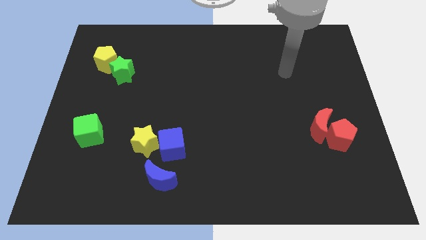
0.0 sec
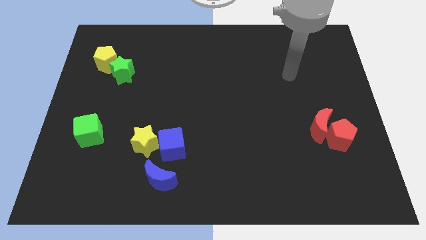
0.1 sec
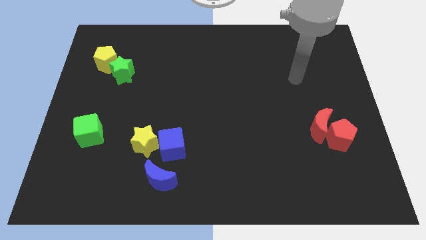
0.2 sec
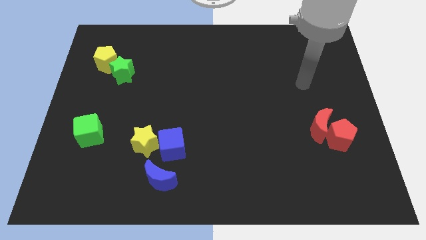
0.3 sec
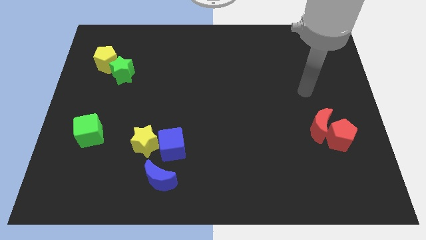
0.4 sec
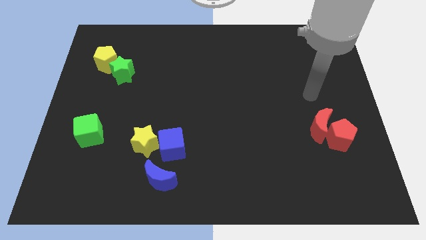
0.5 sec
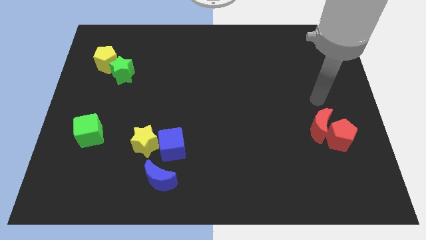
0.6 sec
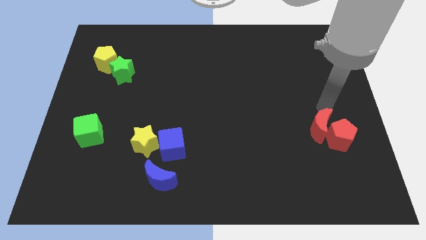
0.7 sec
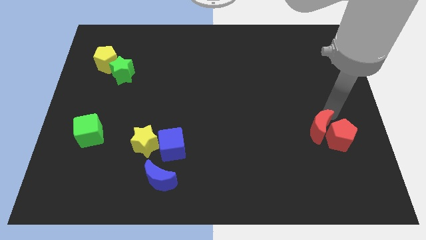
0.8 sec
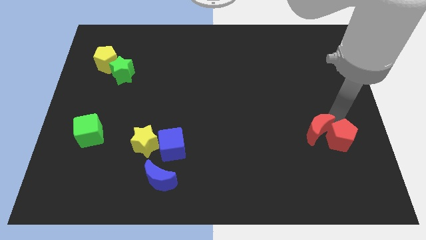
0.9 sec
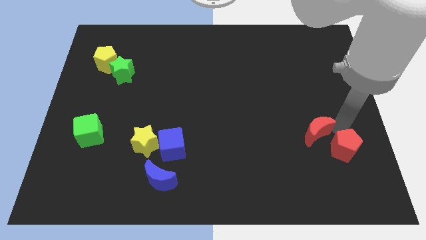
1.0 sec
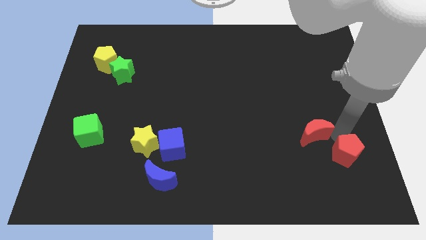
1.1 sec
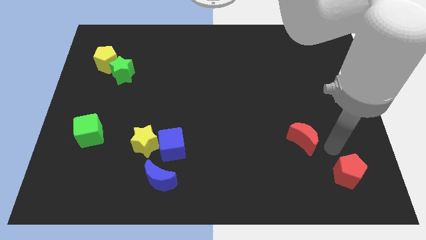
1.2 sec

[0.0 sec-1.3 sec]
move the red moon away from the red pentagon

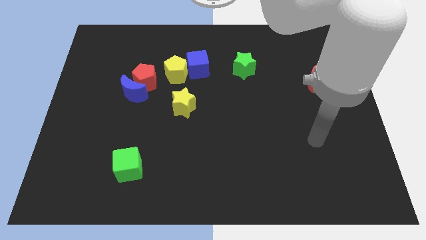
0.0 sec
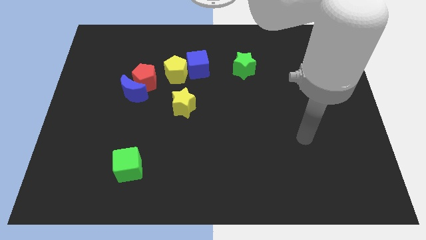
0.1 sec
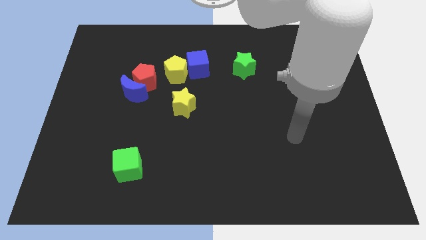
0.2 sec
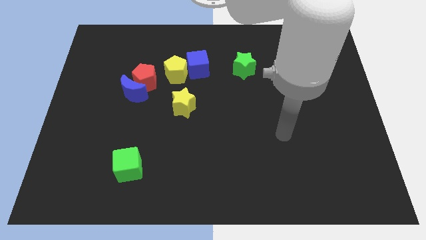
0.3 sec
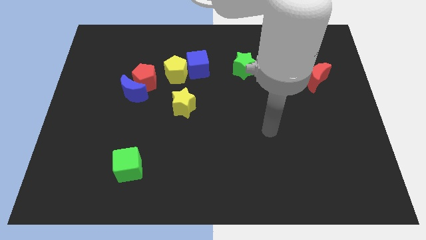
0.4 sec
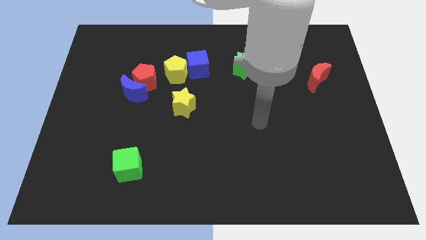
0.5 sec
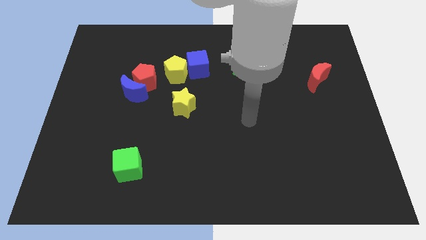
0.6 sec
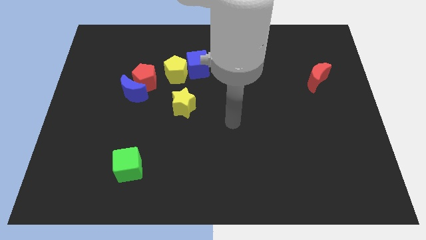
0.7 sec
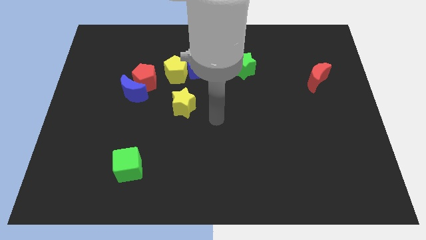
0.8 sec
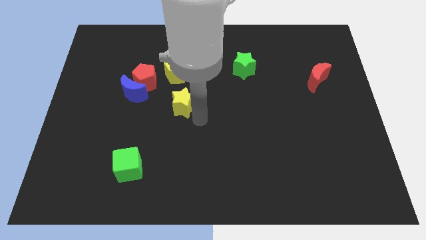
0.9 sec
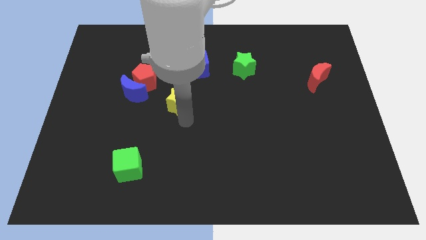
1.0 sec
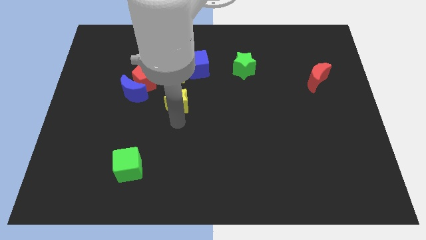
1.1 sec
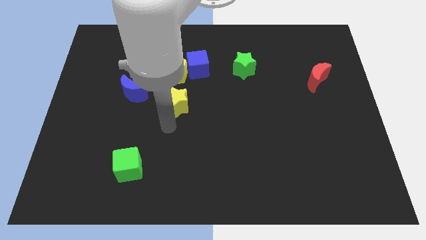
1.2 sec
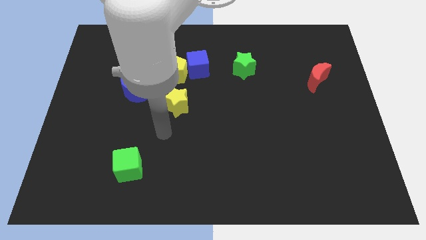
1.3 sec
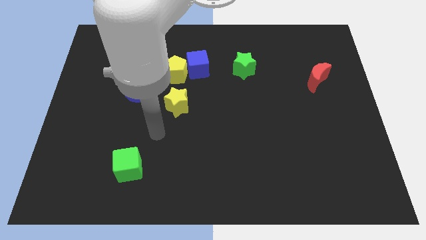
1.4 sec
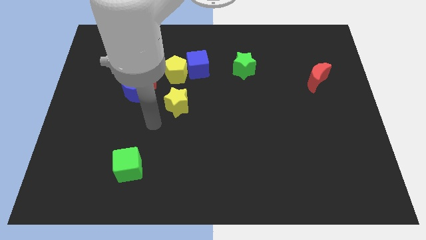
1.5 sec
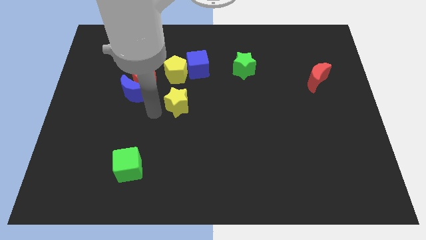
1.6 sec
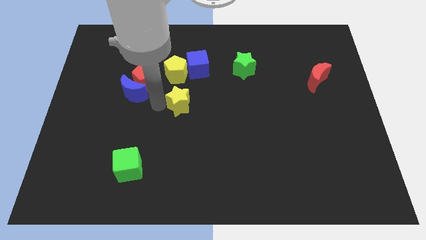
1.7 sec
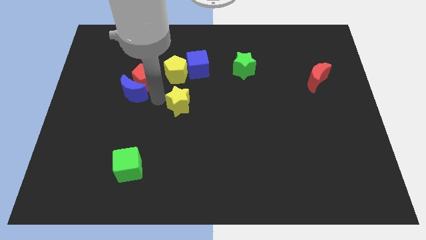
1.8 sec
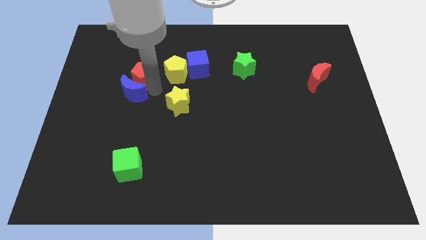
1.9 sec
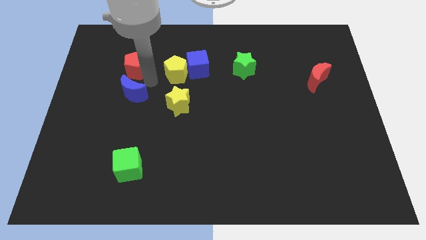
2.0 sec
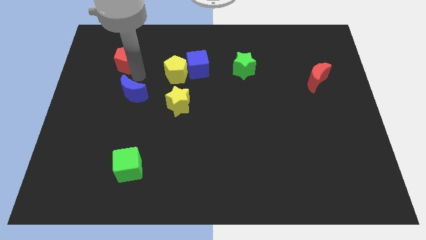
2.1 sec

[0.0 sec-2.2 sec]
pull the blue moon apart from the red pentagon

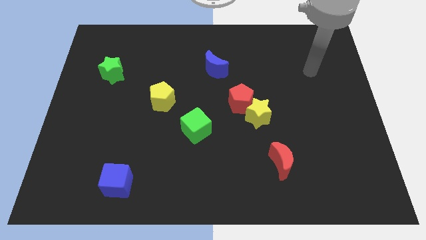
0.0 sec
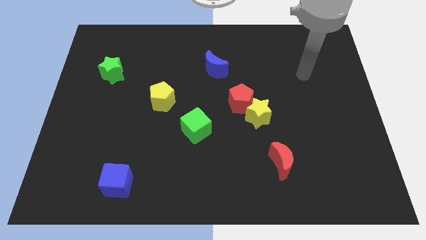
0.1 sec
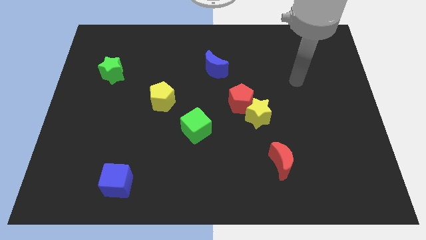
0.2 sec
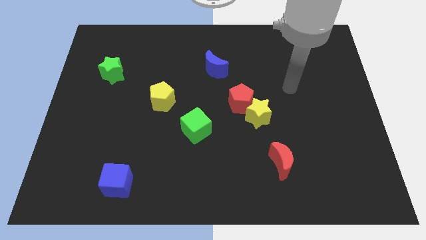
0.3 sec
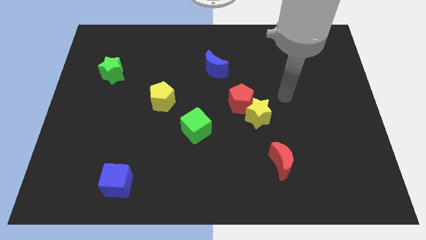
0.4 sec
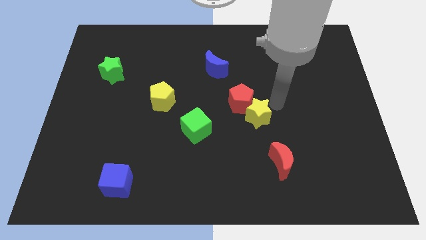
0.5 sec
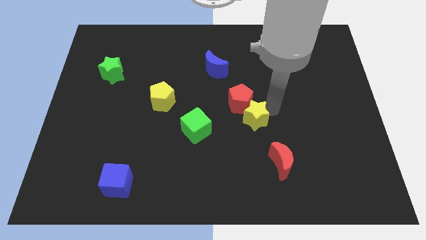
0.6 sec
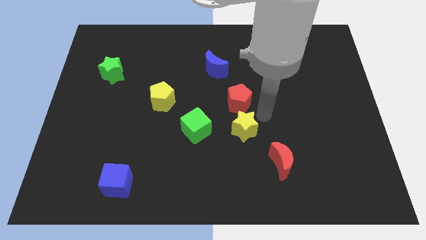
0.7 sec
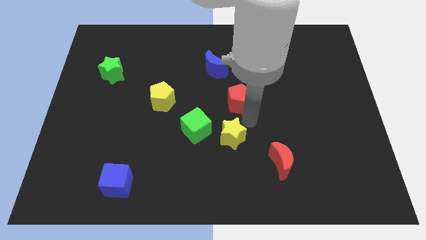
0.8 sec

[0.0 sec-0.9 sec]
move the red pentagon away from the yellow star

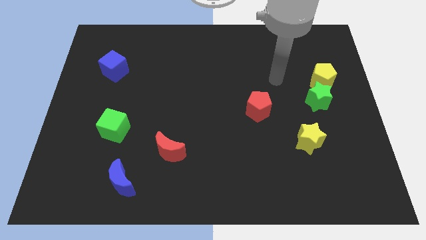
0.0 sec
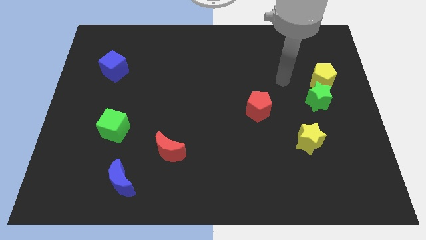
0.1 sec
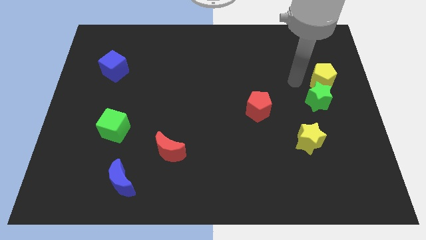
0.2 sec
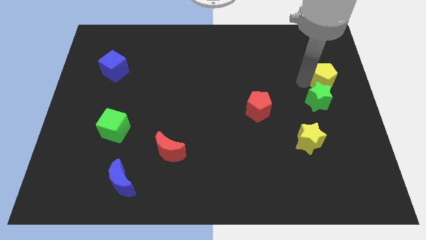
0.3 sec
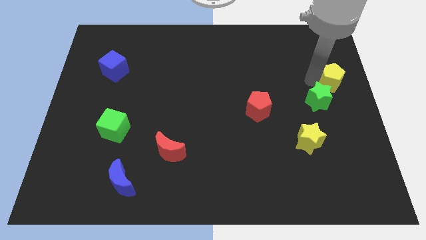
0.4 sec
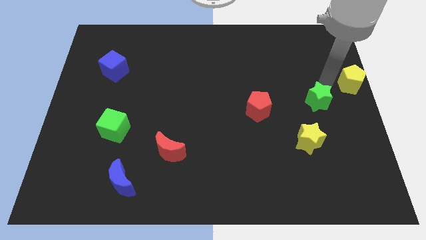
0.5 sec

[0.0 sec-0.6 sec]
separate the green star from the yellow pentagon

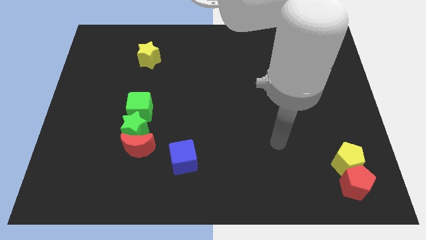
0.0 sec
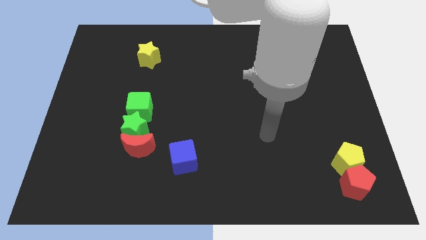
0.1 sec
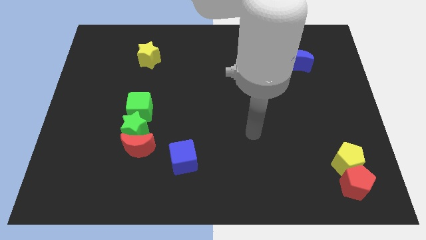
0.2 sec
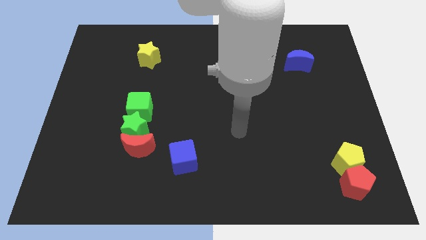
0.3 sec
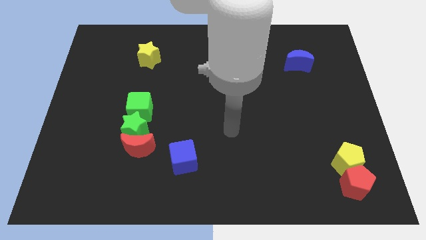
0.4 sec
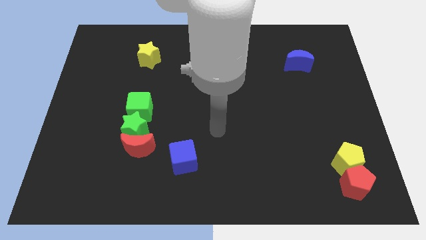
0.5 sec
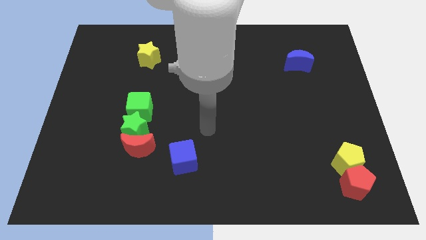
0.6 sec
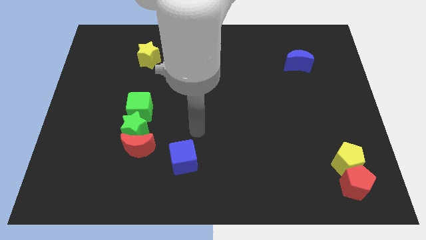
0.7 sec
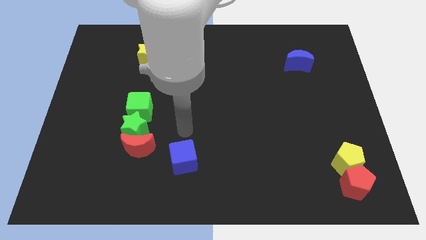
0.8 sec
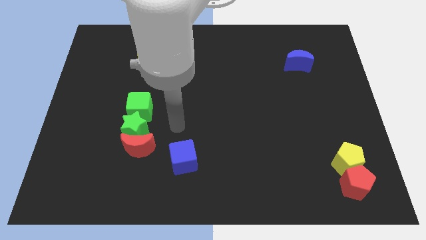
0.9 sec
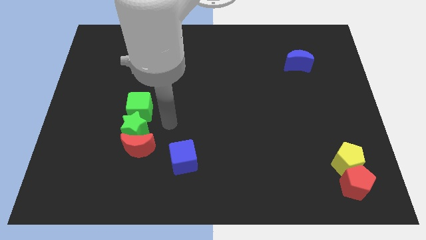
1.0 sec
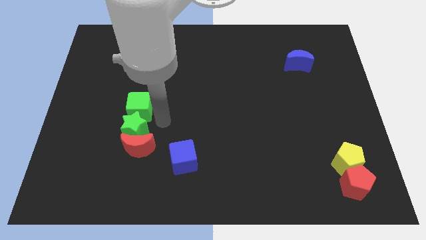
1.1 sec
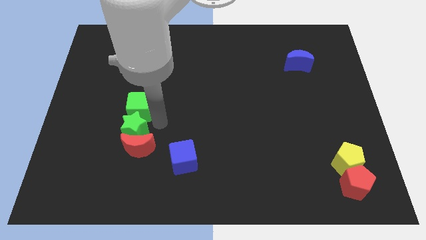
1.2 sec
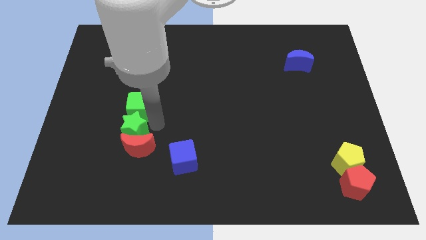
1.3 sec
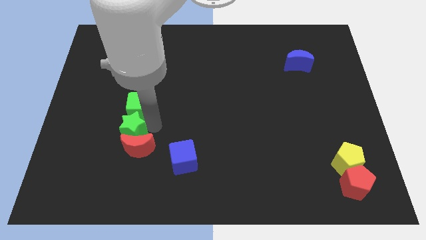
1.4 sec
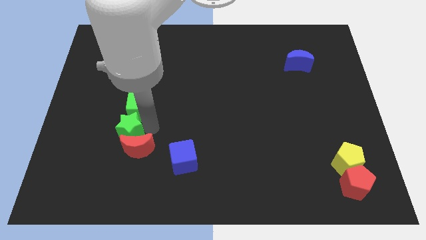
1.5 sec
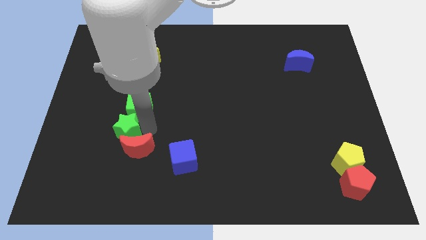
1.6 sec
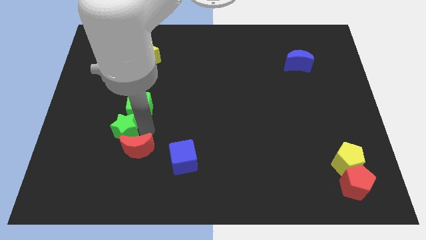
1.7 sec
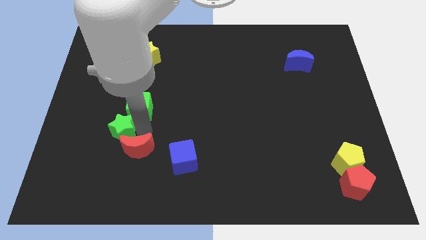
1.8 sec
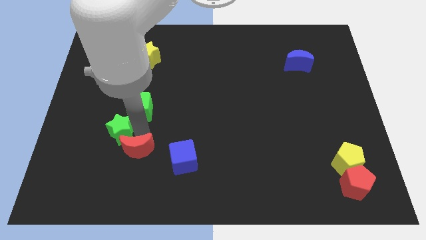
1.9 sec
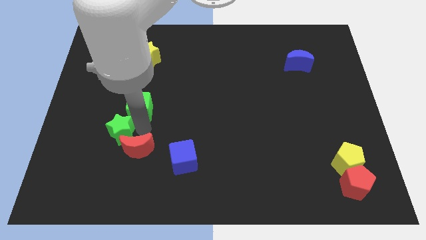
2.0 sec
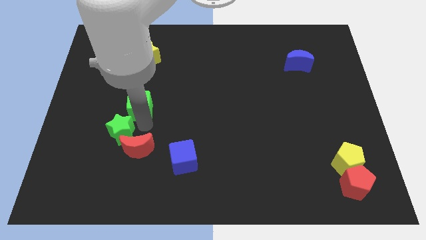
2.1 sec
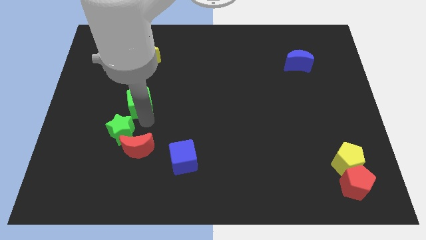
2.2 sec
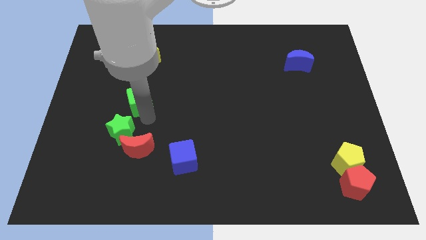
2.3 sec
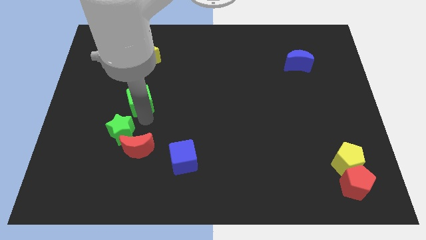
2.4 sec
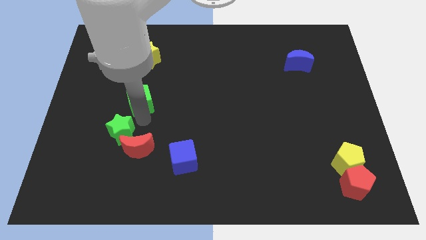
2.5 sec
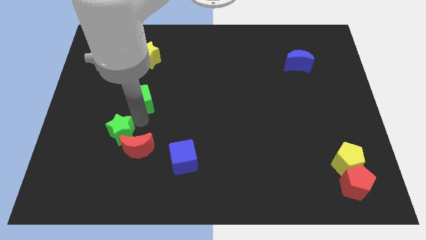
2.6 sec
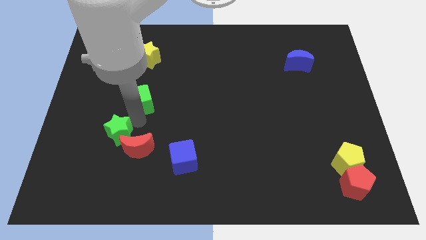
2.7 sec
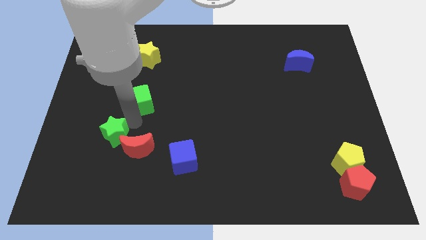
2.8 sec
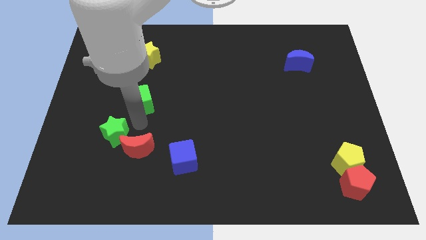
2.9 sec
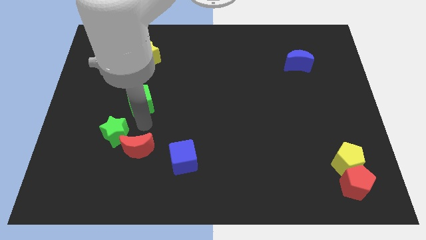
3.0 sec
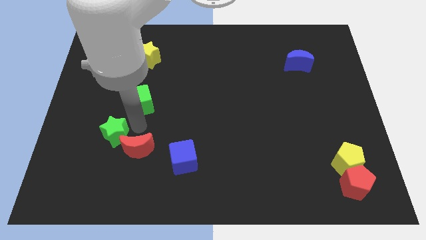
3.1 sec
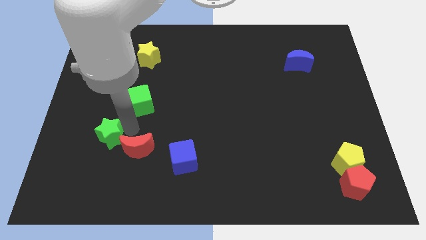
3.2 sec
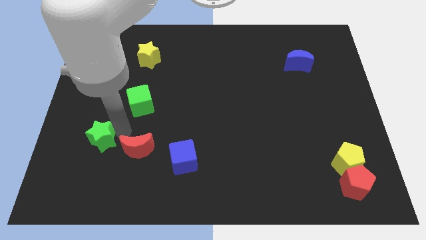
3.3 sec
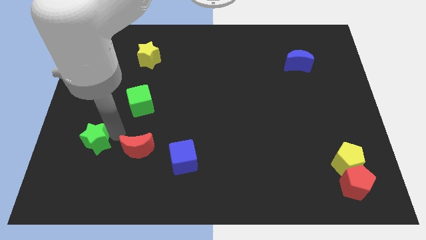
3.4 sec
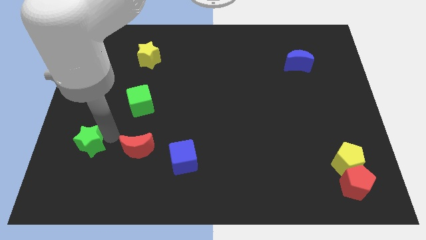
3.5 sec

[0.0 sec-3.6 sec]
move the green star away from the red moon and green cube

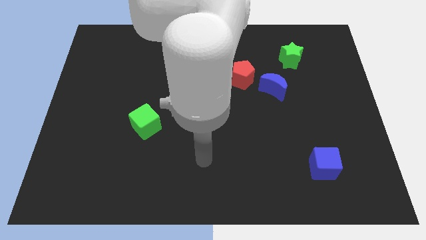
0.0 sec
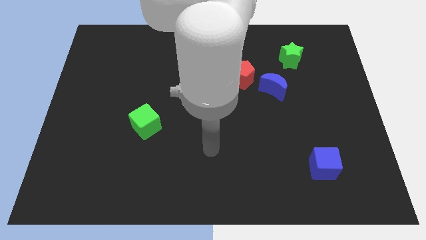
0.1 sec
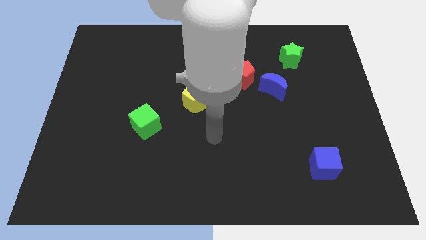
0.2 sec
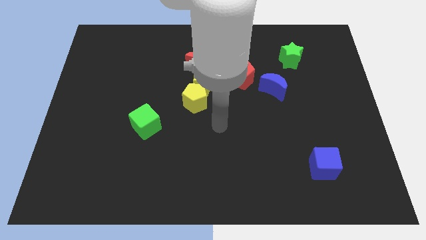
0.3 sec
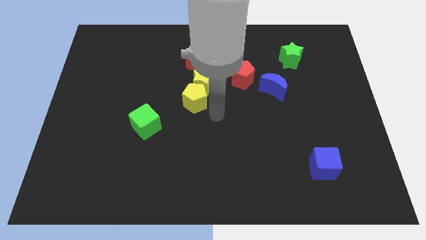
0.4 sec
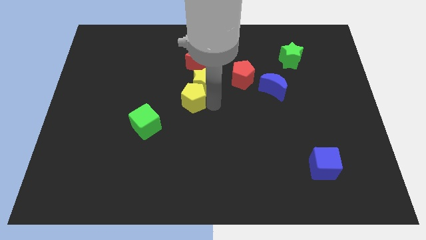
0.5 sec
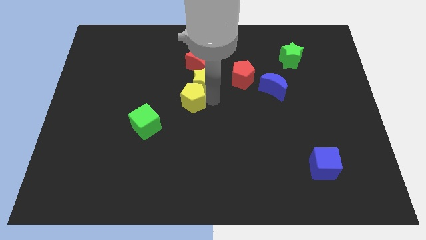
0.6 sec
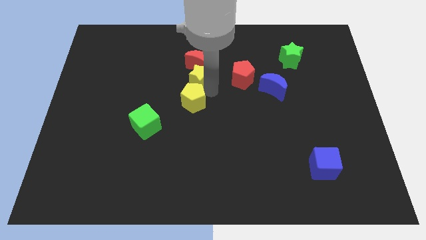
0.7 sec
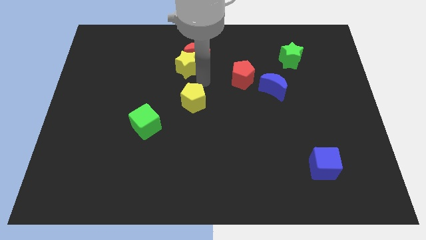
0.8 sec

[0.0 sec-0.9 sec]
move the yellow pentagon away from the yellow star

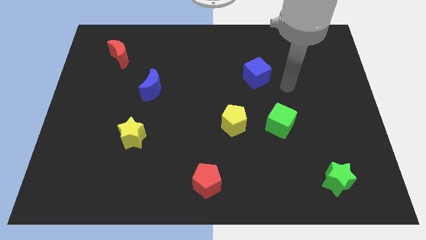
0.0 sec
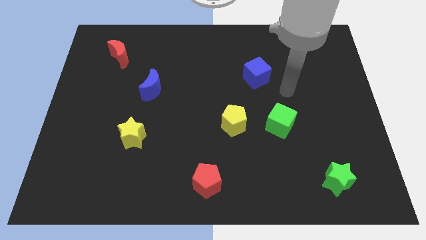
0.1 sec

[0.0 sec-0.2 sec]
separate the green cube from the yellow pentagon
